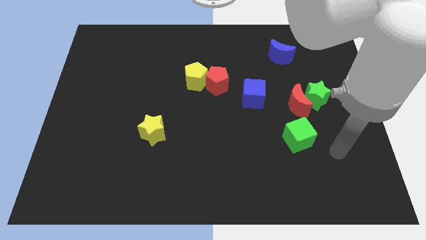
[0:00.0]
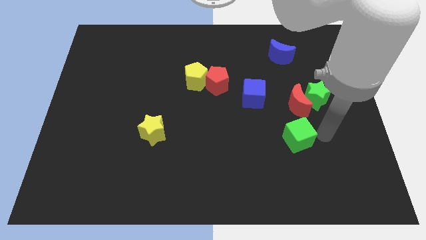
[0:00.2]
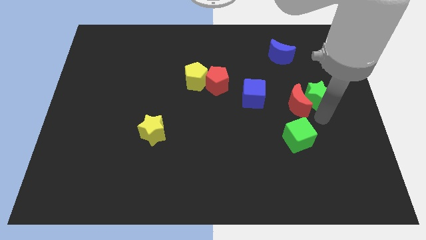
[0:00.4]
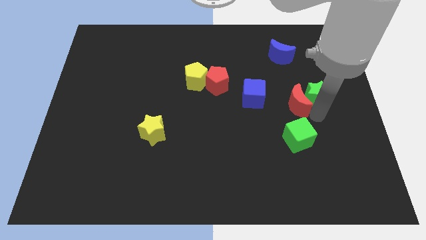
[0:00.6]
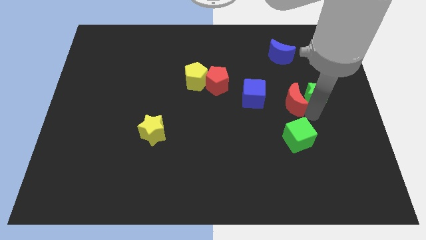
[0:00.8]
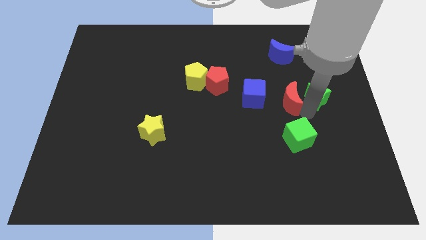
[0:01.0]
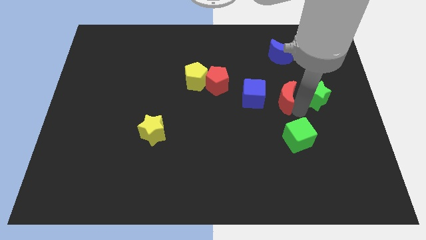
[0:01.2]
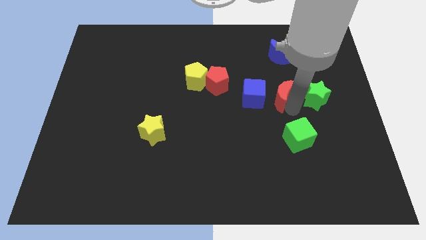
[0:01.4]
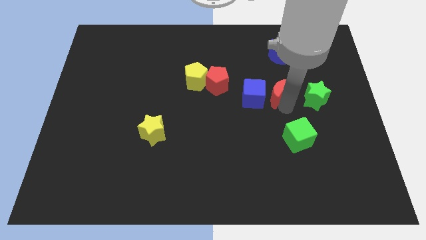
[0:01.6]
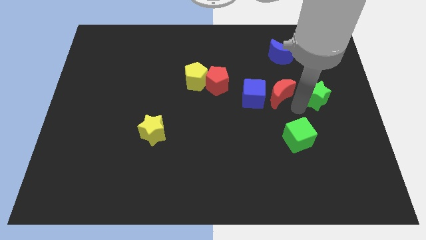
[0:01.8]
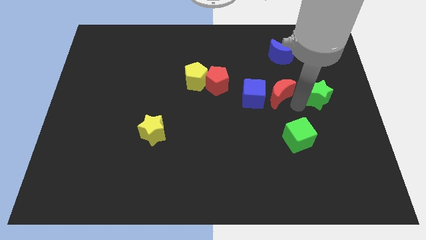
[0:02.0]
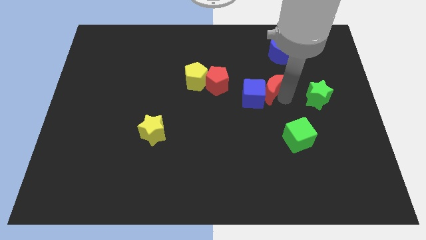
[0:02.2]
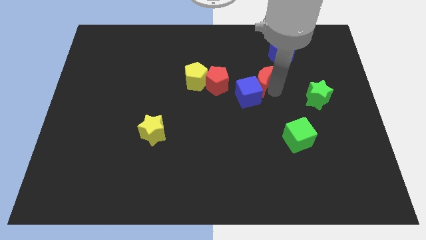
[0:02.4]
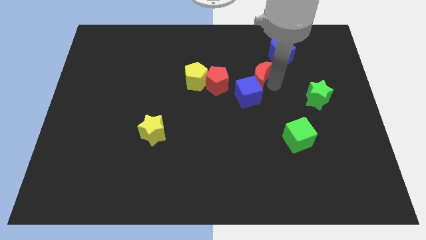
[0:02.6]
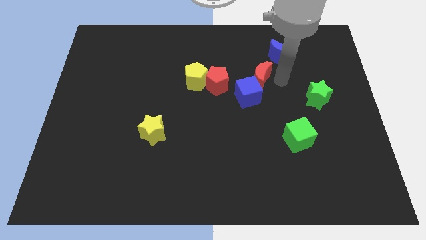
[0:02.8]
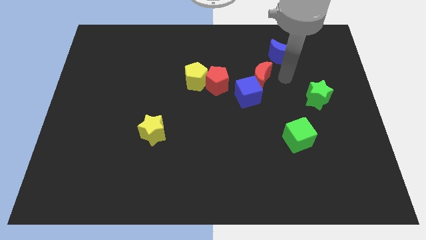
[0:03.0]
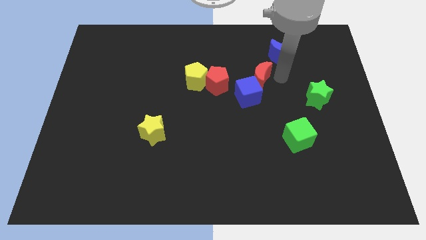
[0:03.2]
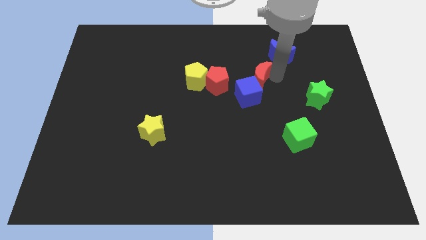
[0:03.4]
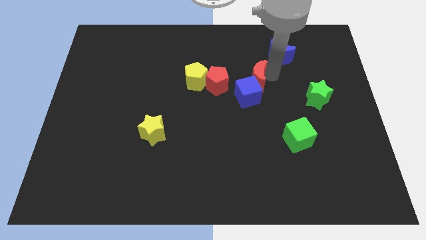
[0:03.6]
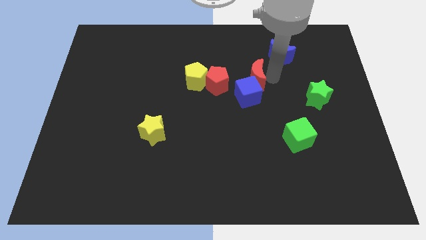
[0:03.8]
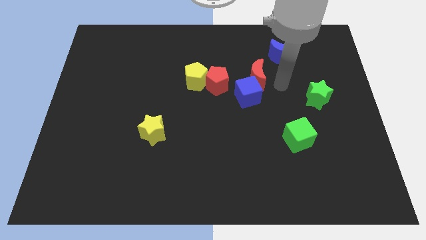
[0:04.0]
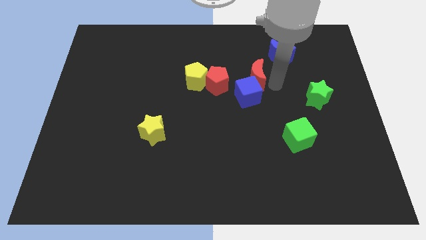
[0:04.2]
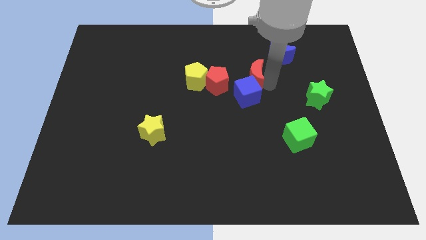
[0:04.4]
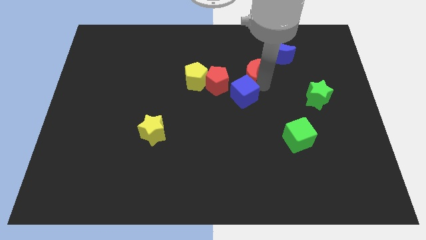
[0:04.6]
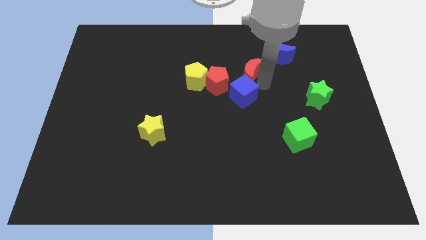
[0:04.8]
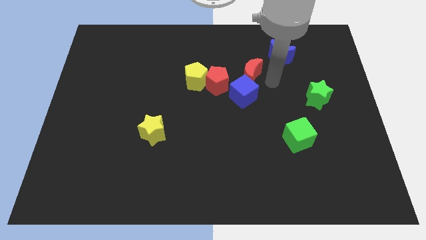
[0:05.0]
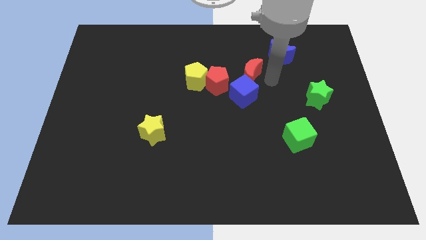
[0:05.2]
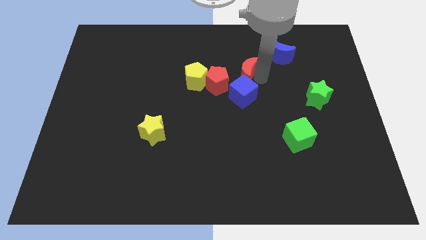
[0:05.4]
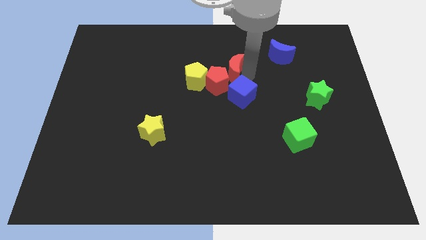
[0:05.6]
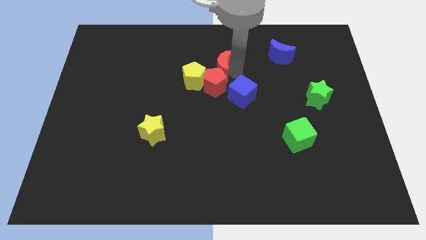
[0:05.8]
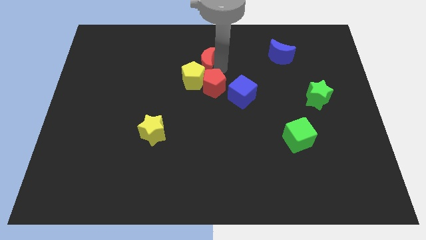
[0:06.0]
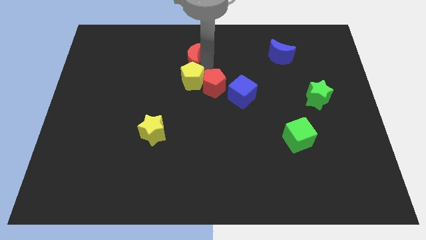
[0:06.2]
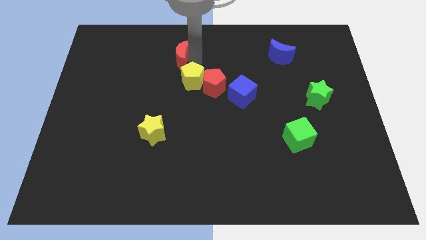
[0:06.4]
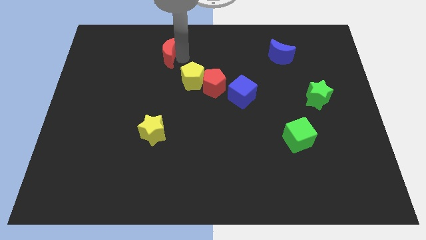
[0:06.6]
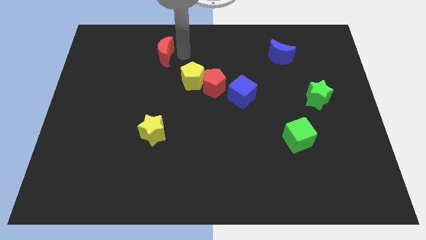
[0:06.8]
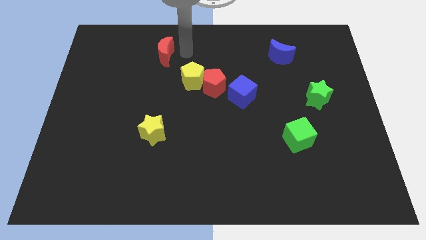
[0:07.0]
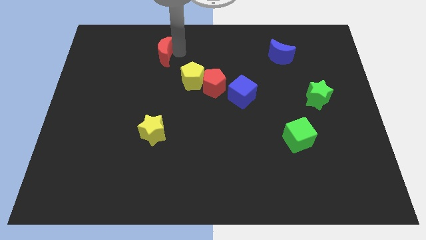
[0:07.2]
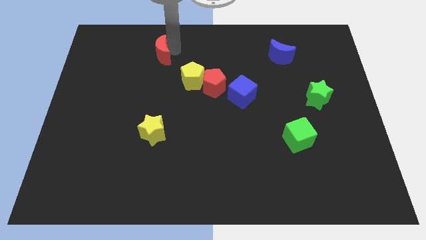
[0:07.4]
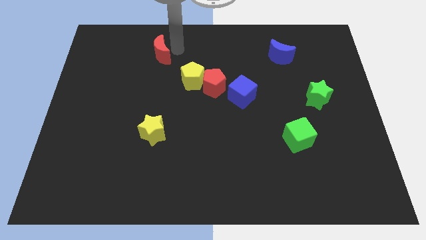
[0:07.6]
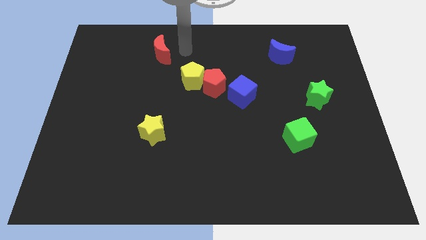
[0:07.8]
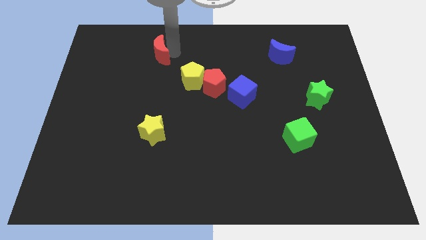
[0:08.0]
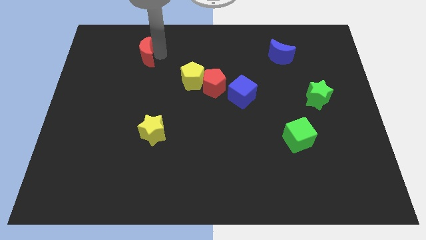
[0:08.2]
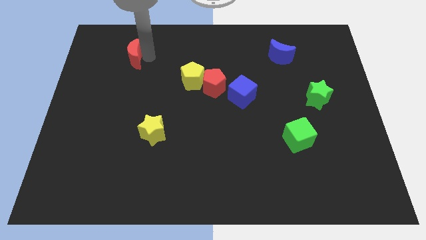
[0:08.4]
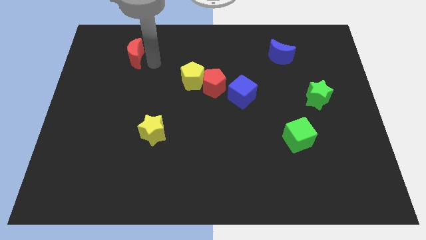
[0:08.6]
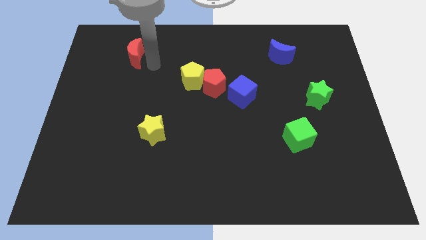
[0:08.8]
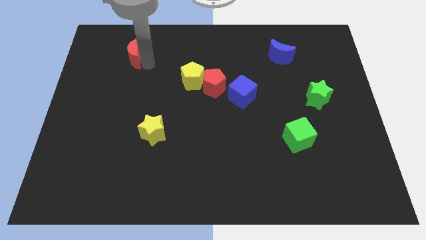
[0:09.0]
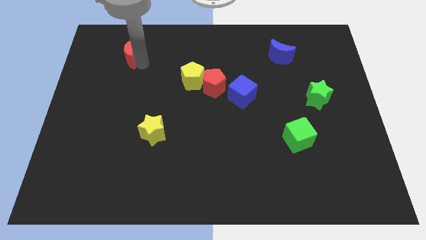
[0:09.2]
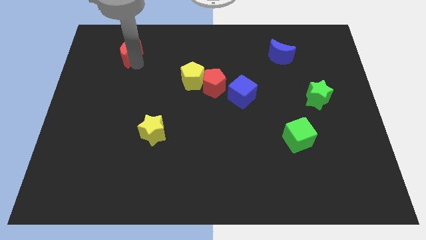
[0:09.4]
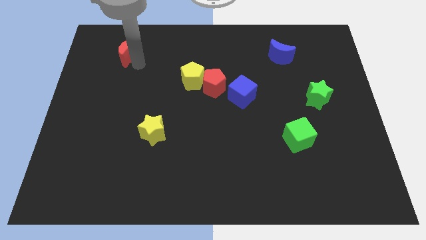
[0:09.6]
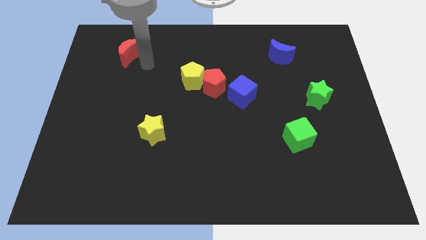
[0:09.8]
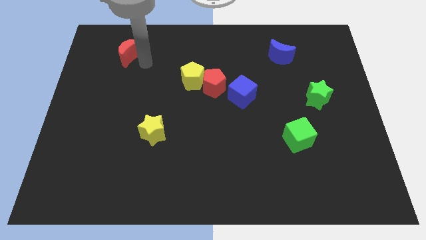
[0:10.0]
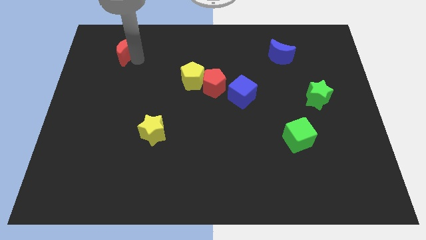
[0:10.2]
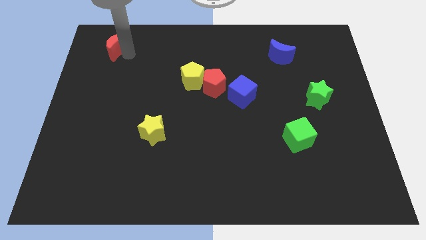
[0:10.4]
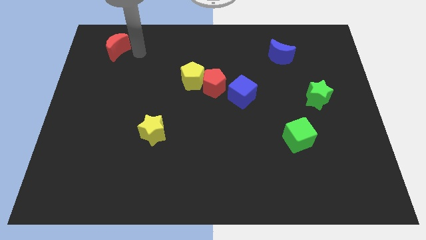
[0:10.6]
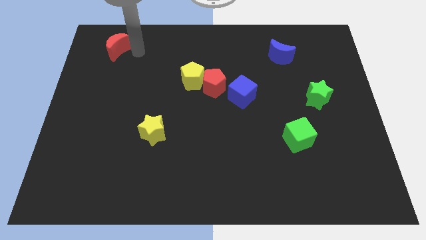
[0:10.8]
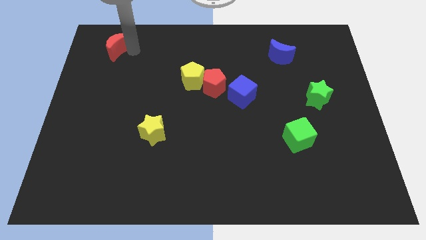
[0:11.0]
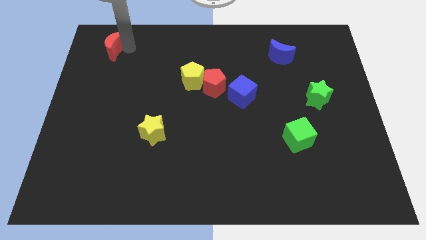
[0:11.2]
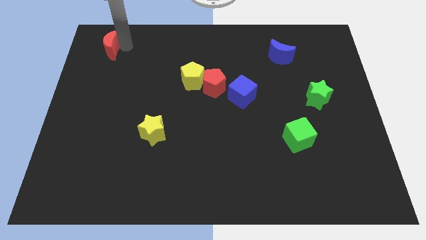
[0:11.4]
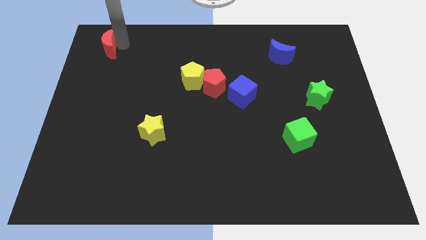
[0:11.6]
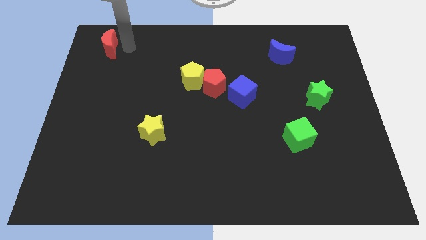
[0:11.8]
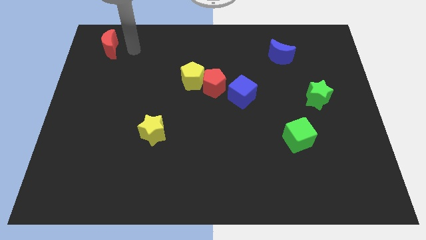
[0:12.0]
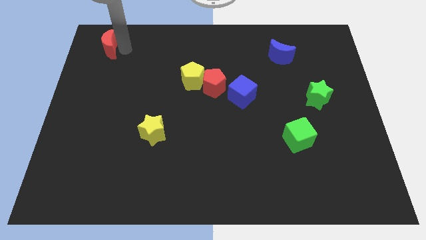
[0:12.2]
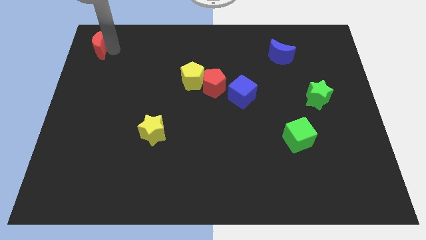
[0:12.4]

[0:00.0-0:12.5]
move the red moon to the upper left corner
